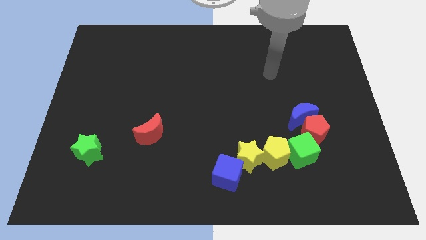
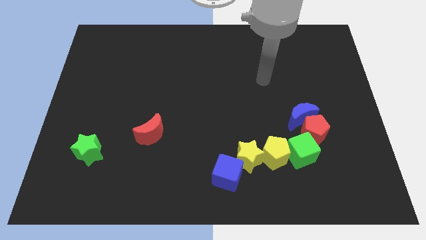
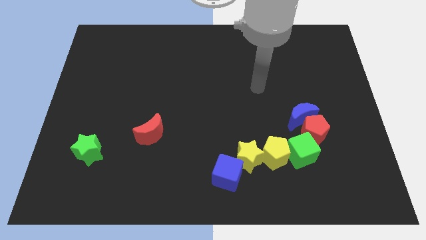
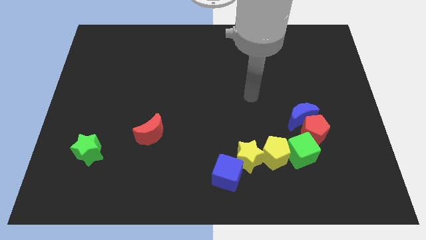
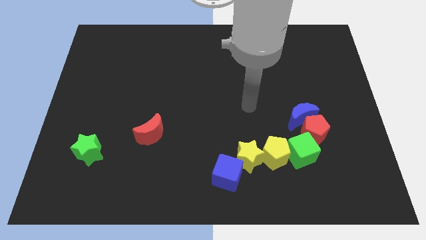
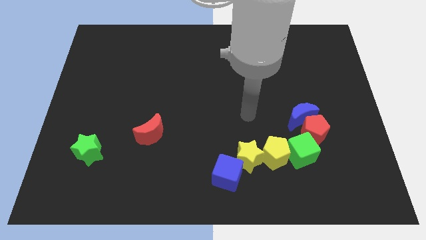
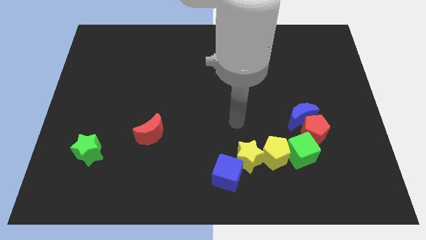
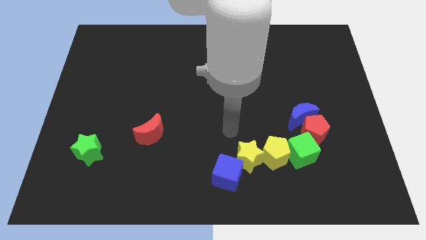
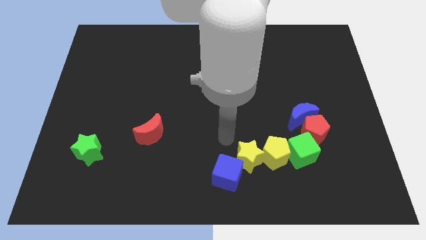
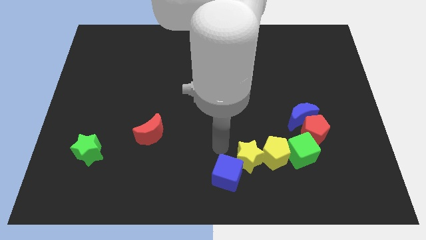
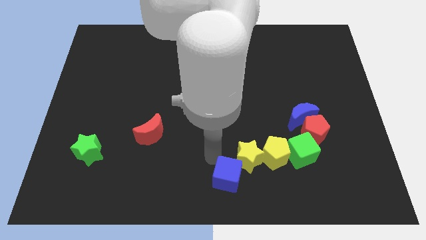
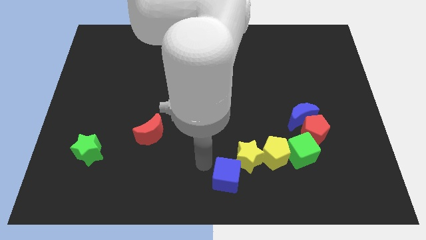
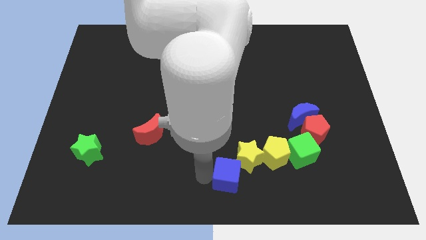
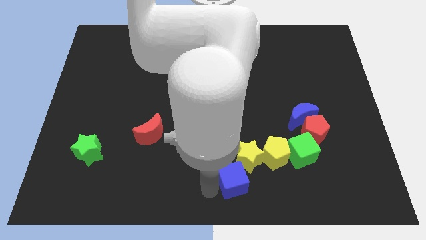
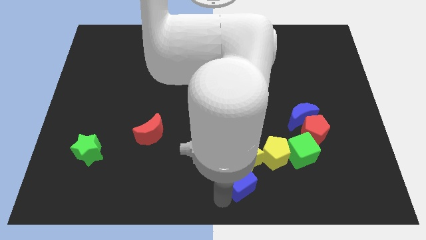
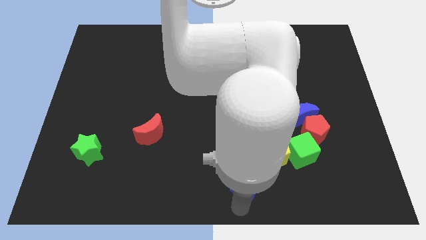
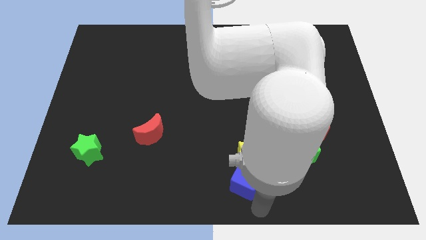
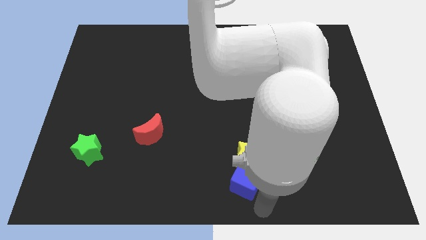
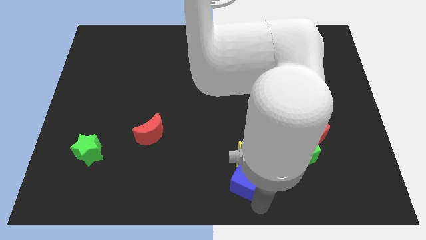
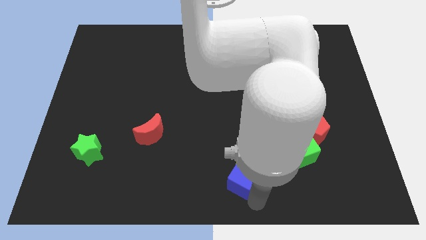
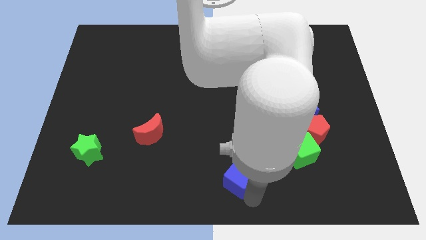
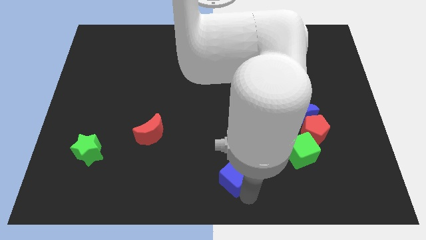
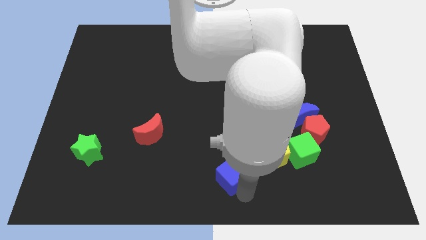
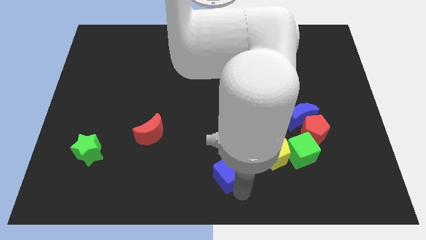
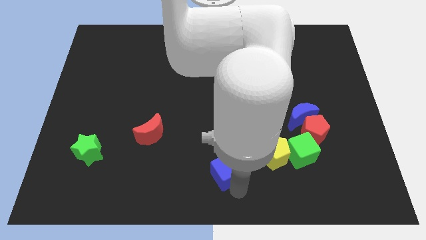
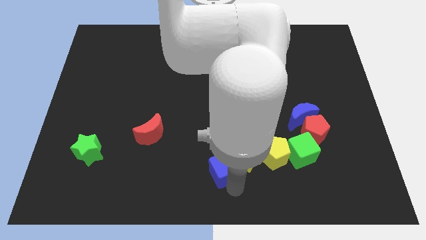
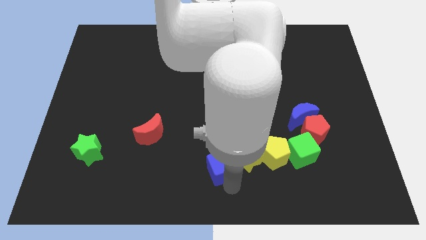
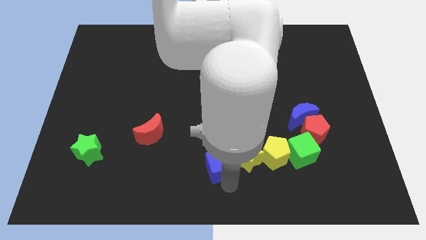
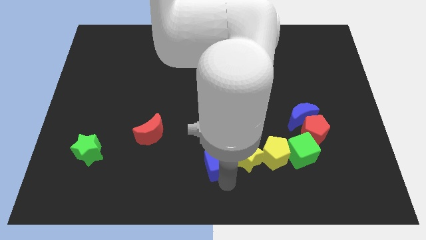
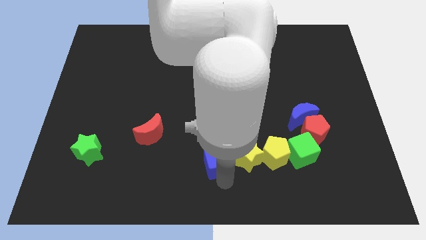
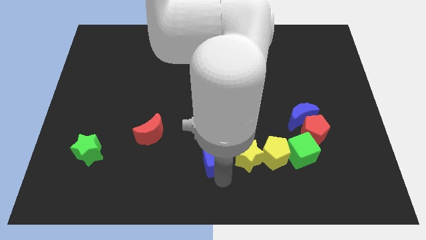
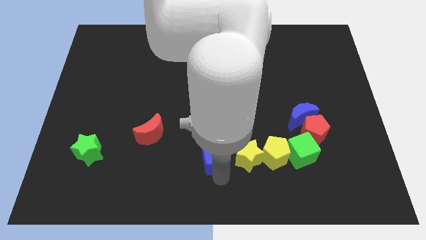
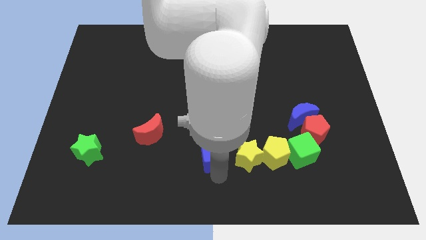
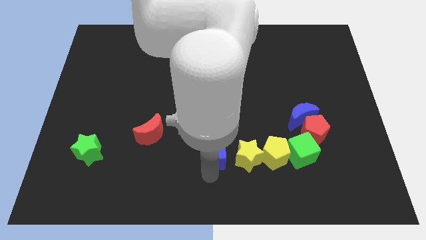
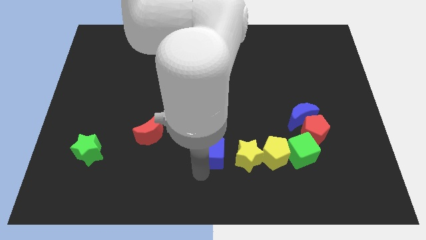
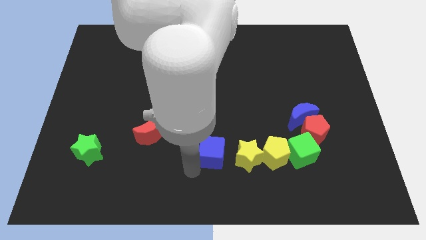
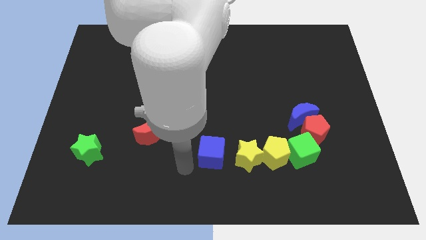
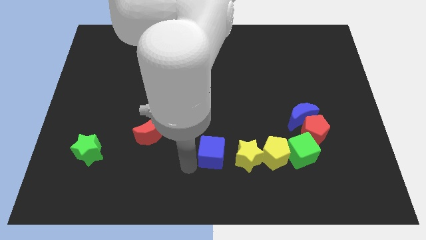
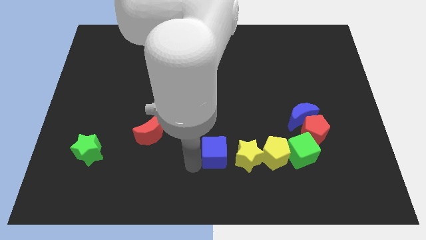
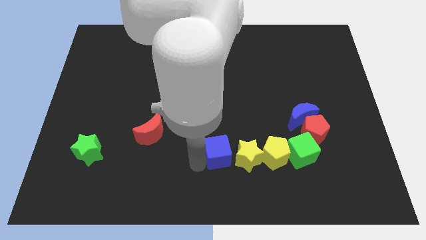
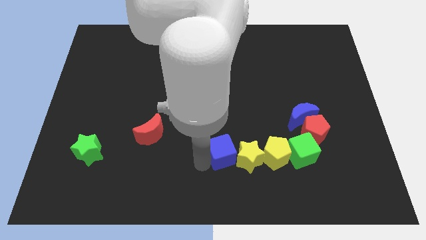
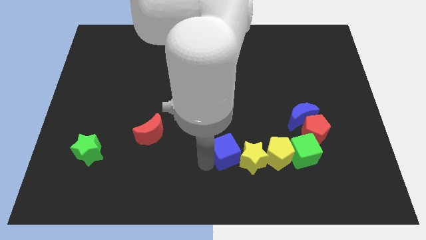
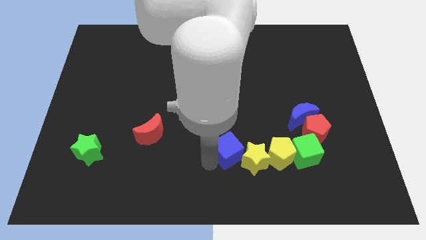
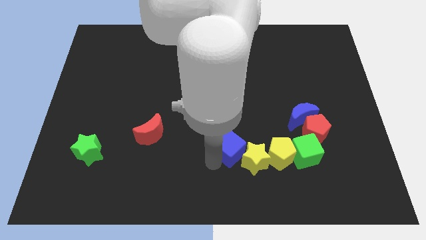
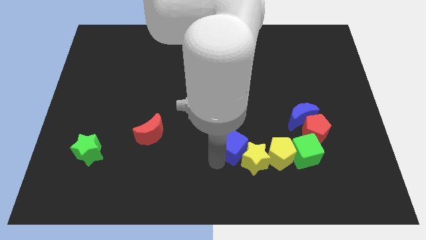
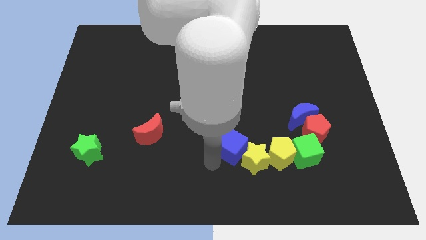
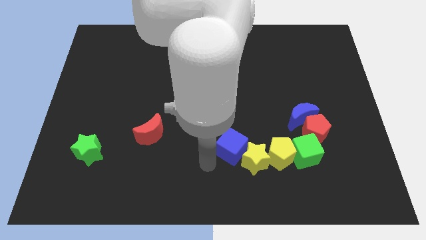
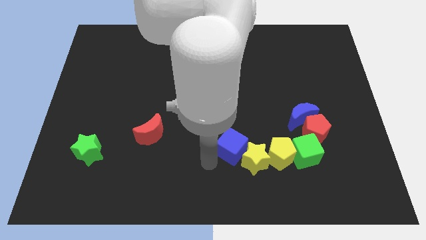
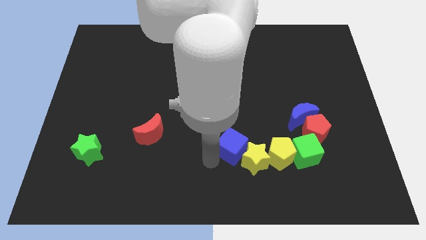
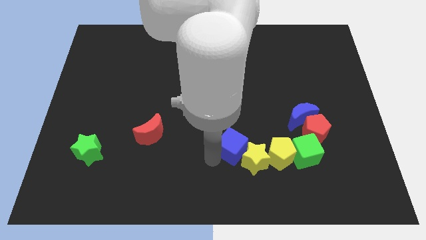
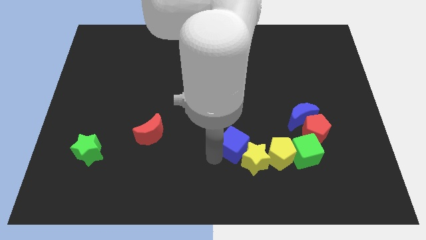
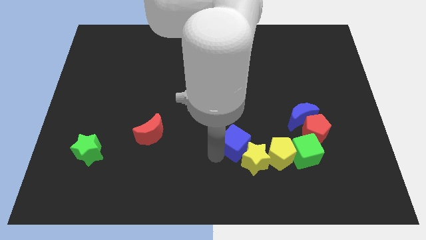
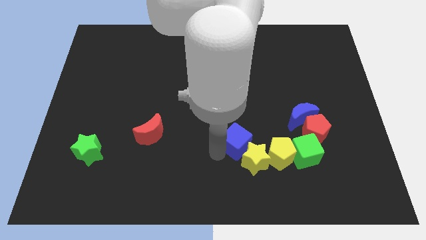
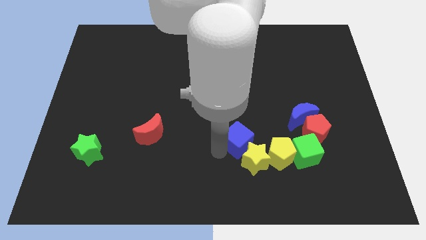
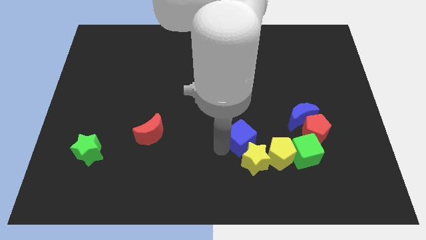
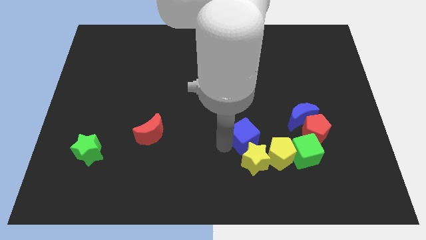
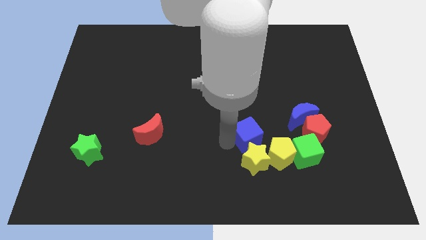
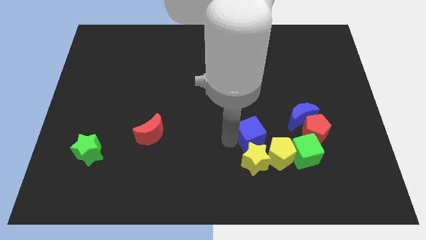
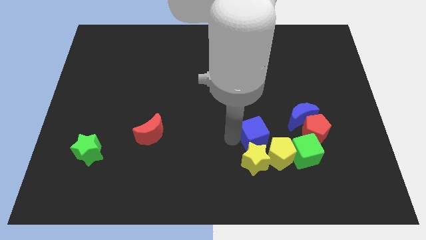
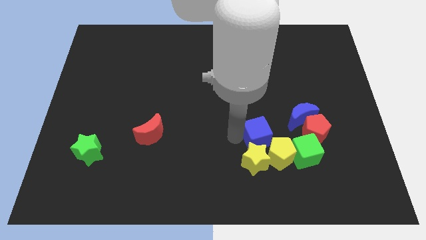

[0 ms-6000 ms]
slide the blue cube diagonally down and to the left of the blue moon

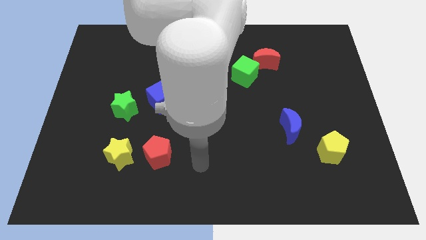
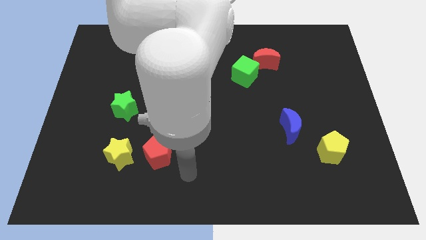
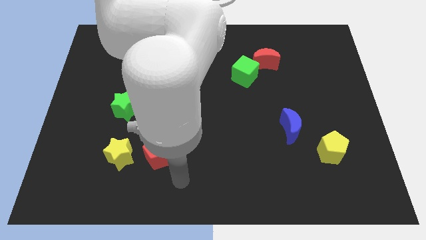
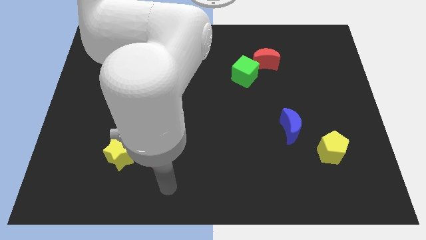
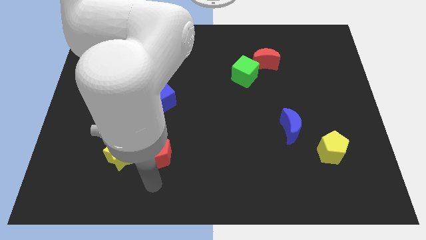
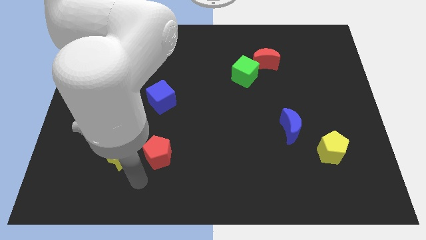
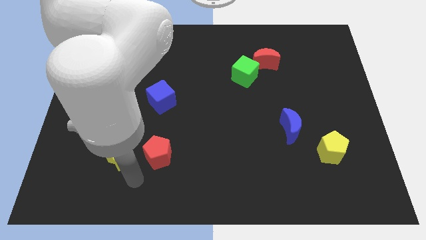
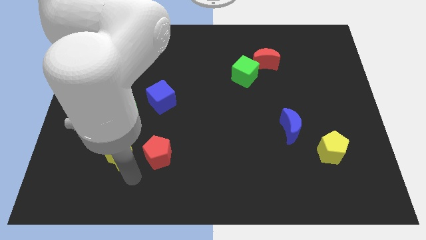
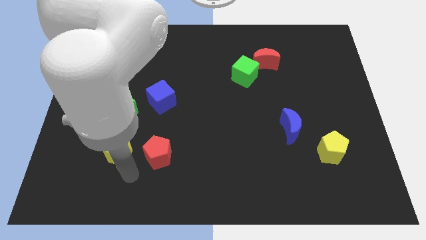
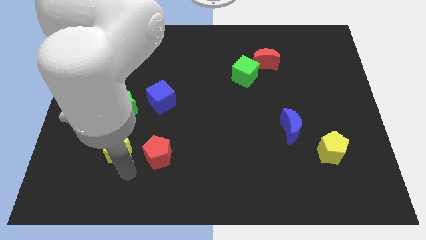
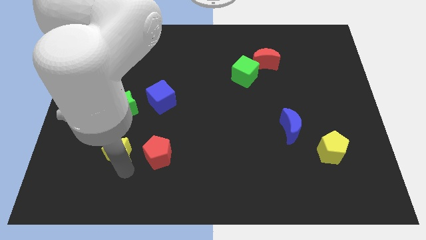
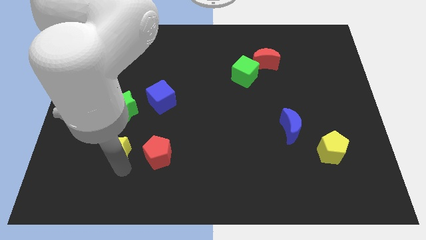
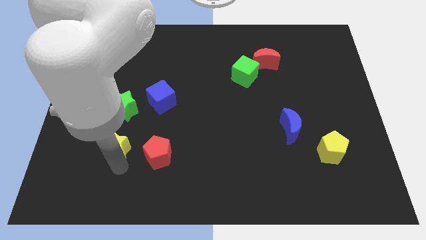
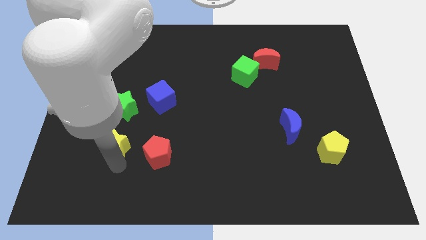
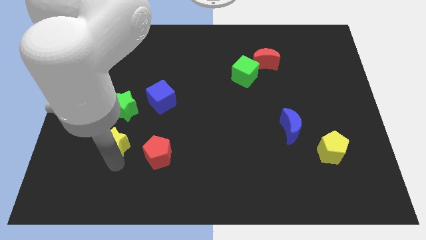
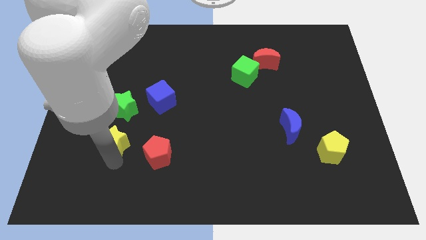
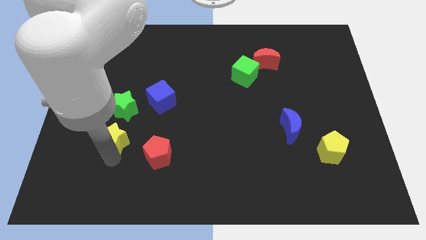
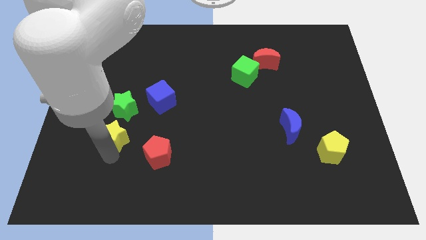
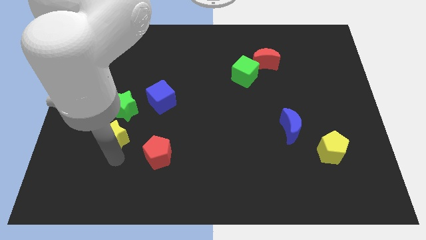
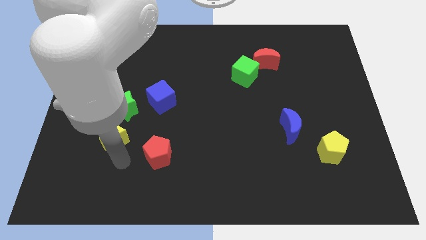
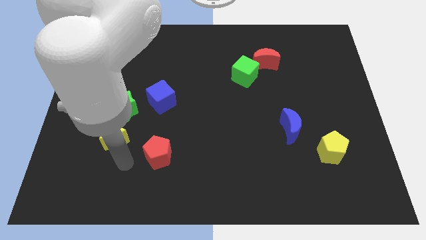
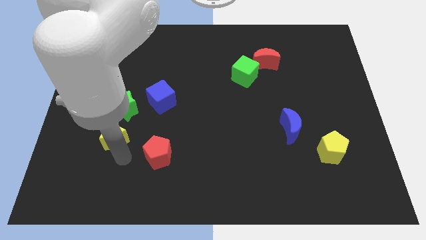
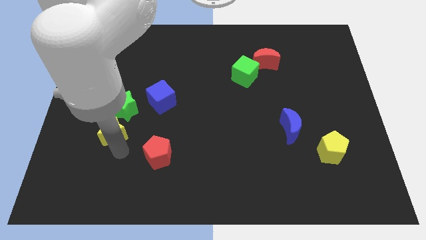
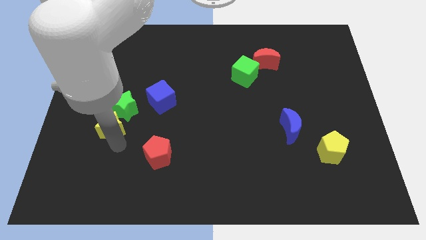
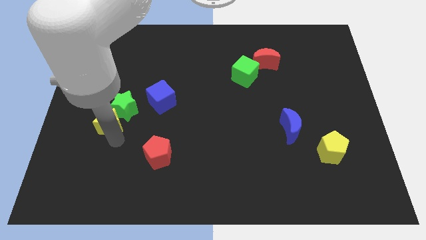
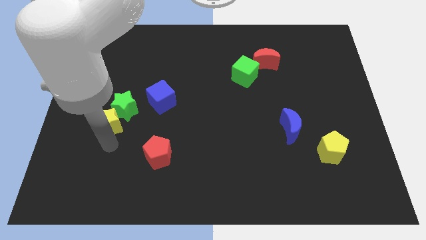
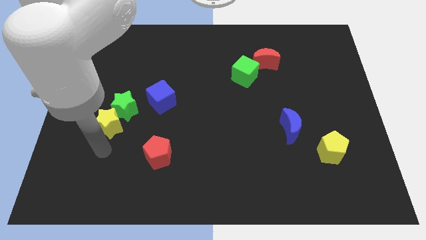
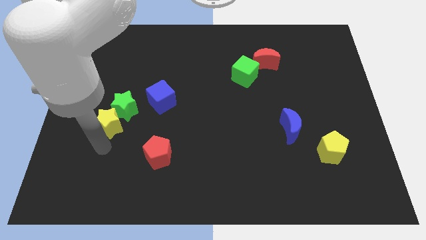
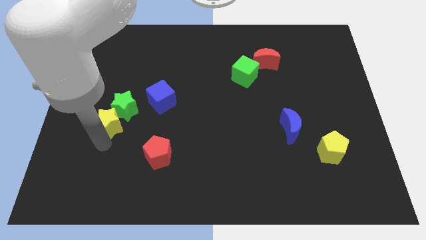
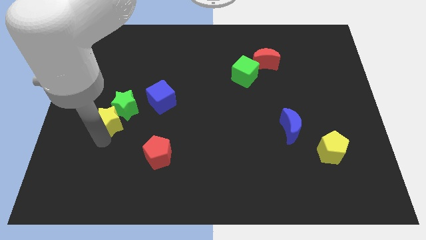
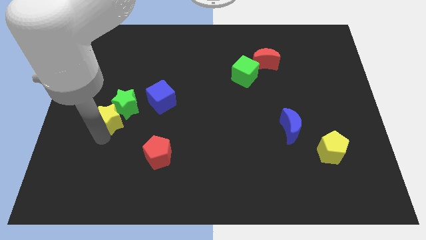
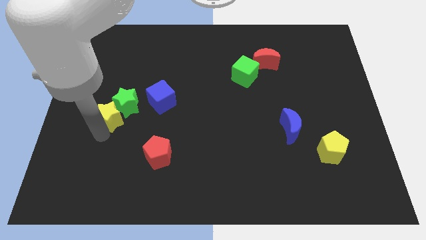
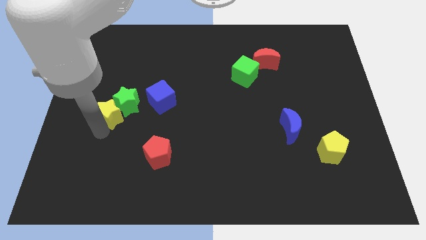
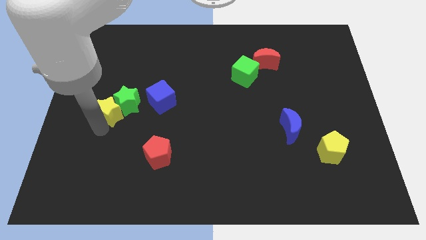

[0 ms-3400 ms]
slide the yellow star to the left of the blue cube
